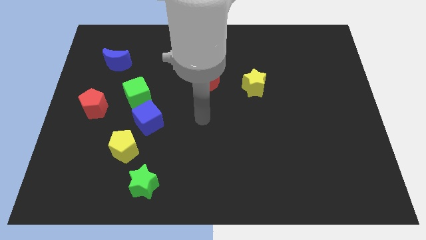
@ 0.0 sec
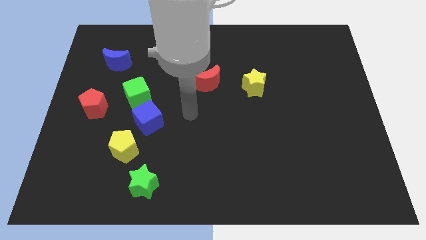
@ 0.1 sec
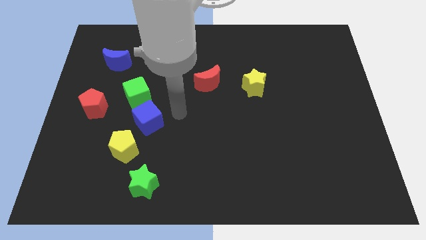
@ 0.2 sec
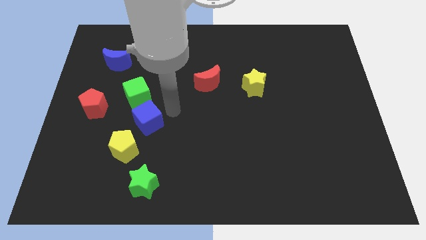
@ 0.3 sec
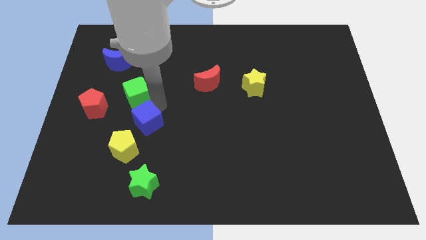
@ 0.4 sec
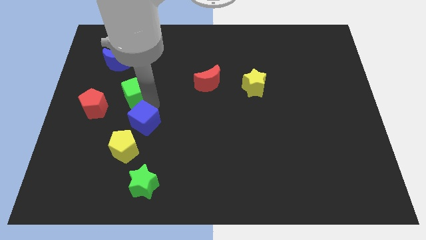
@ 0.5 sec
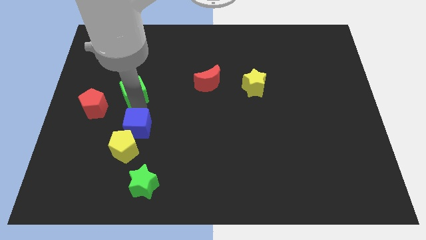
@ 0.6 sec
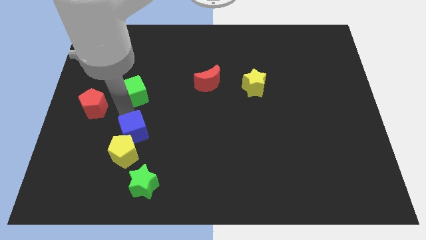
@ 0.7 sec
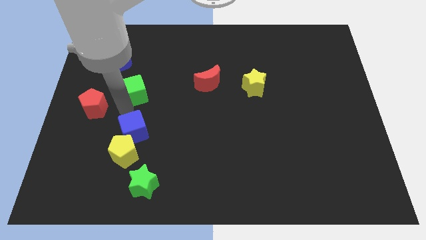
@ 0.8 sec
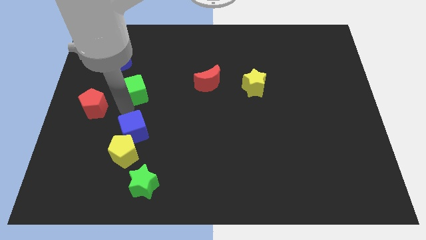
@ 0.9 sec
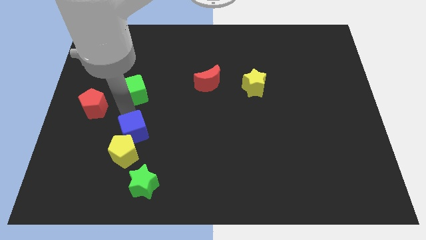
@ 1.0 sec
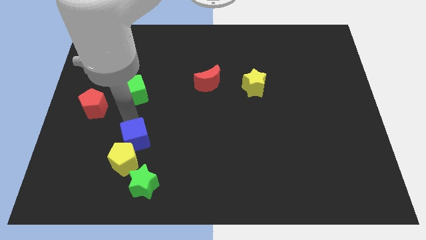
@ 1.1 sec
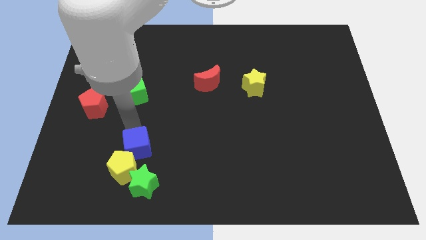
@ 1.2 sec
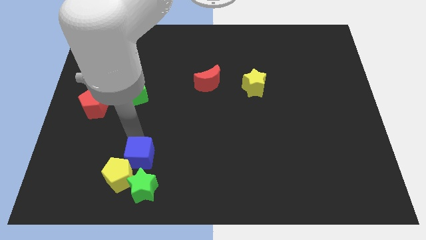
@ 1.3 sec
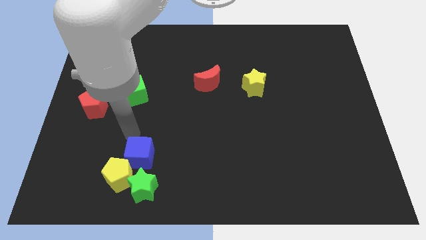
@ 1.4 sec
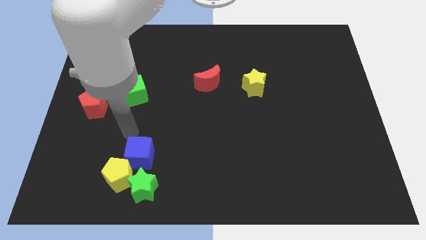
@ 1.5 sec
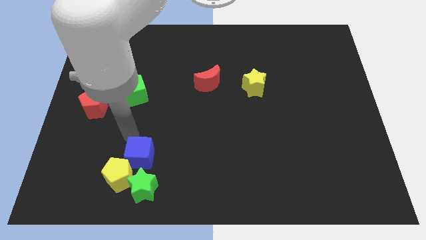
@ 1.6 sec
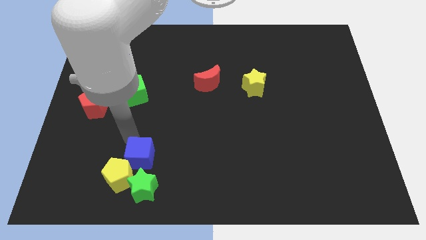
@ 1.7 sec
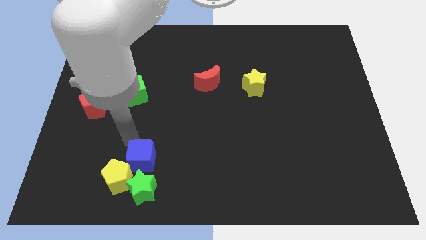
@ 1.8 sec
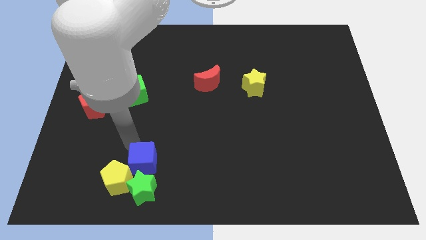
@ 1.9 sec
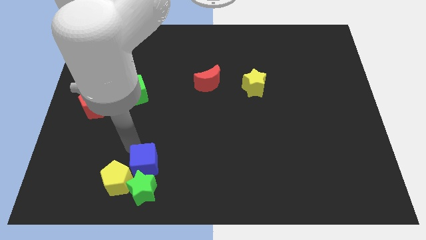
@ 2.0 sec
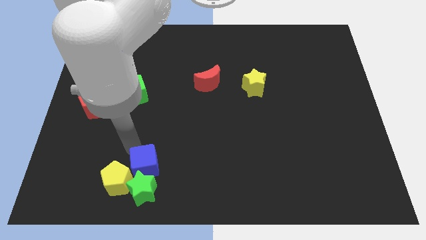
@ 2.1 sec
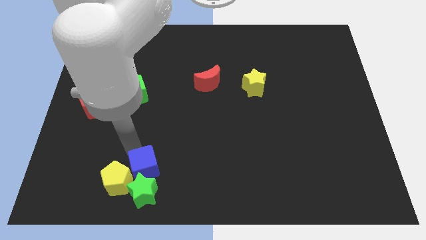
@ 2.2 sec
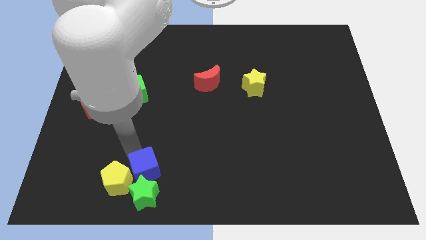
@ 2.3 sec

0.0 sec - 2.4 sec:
move the blue cube away from the green cube and yellow pentagon

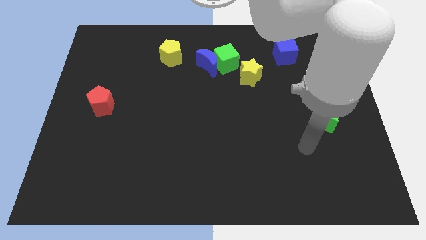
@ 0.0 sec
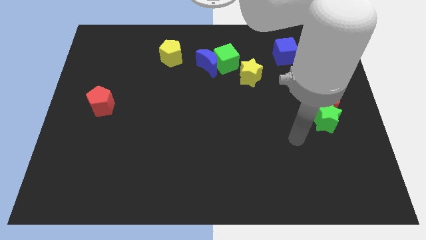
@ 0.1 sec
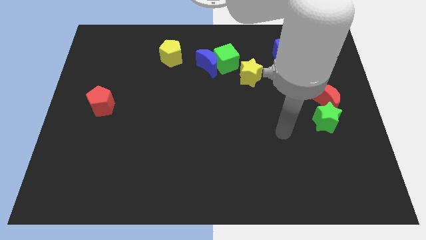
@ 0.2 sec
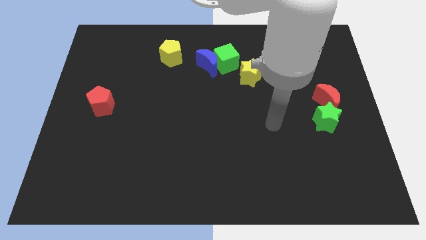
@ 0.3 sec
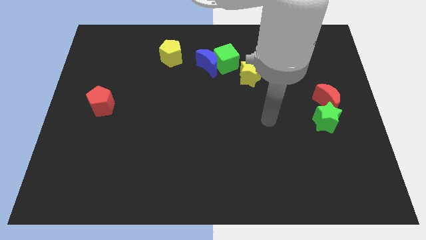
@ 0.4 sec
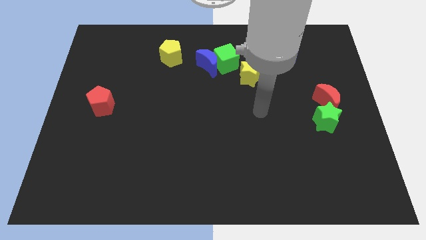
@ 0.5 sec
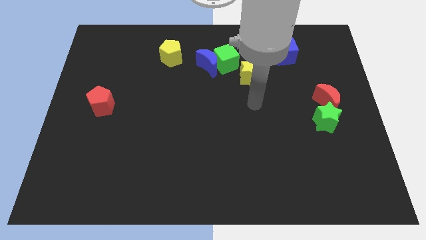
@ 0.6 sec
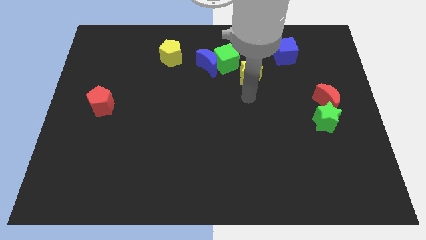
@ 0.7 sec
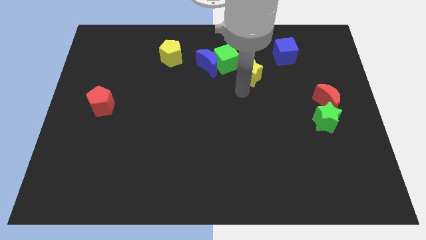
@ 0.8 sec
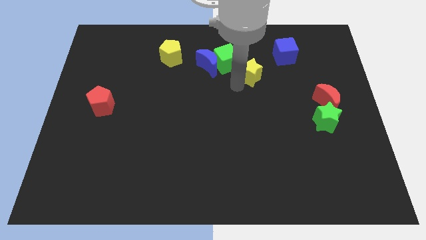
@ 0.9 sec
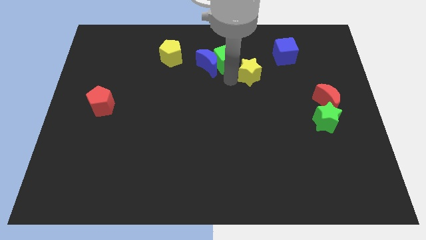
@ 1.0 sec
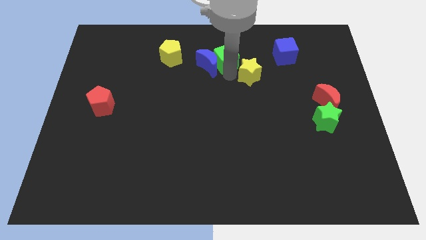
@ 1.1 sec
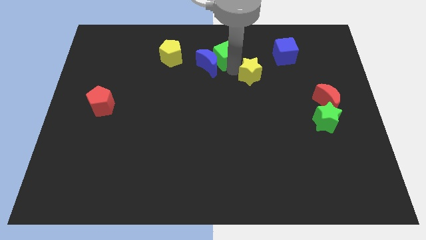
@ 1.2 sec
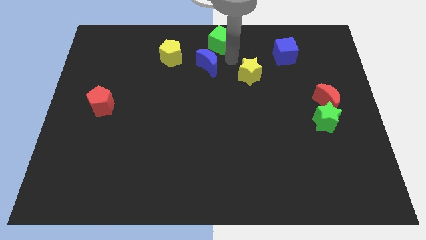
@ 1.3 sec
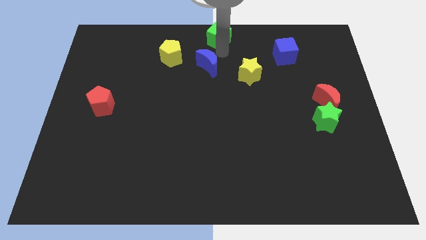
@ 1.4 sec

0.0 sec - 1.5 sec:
pull the blue moon apart from the green cube

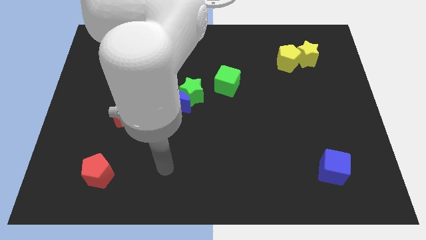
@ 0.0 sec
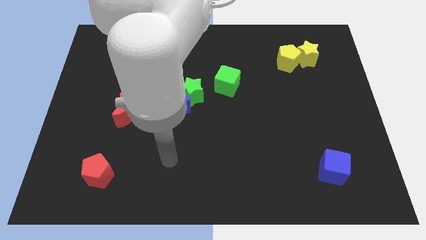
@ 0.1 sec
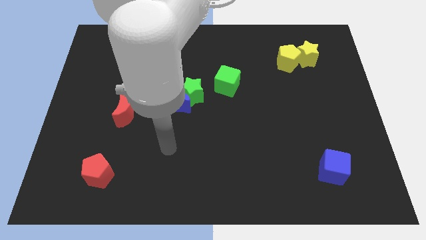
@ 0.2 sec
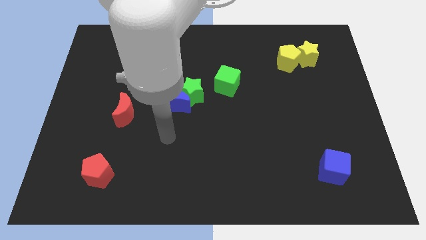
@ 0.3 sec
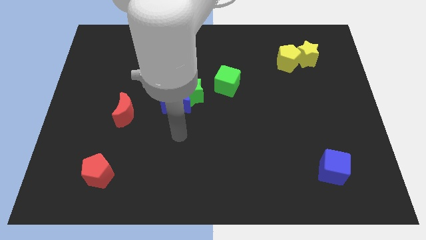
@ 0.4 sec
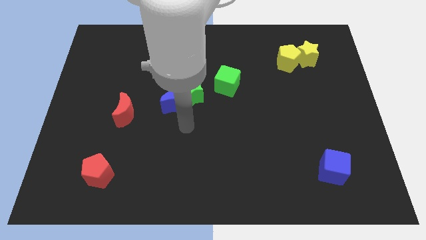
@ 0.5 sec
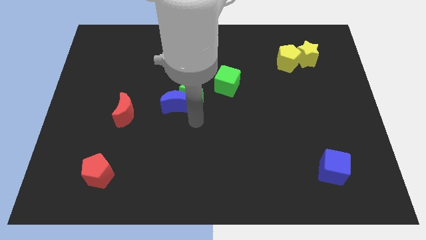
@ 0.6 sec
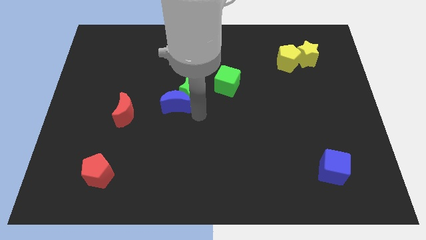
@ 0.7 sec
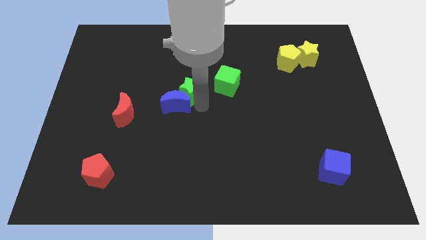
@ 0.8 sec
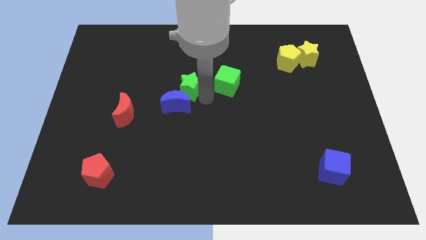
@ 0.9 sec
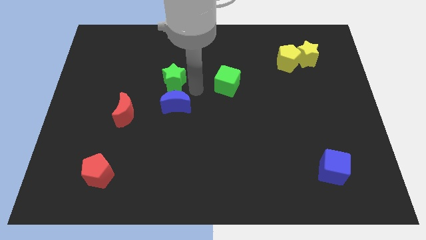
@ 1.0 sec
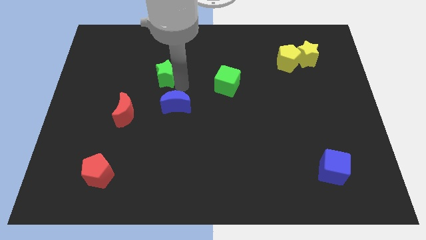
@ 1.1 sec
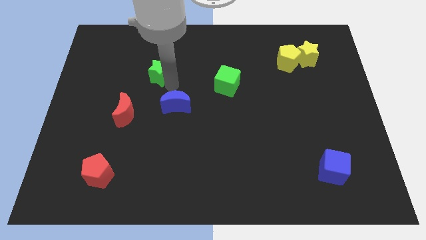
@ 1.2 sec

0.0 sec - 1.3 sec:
pull the blue moon apart from the green star

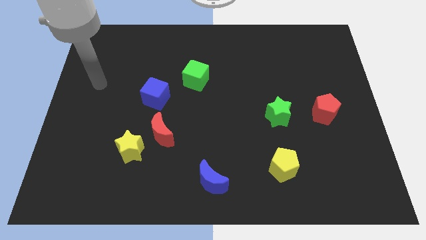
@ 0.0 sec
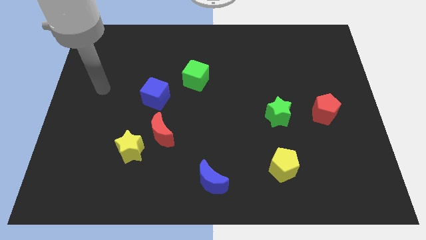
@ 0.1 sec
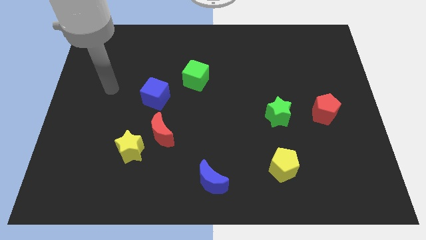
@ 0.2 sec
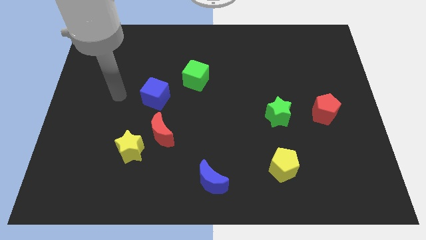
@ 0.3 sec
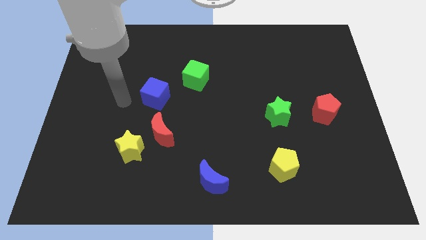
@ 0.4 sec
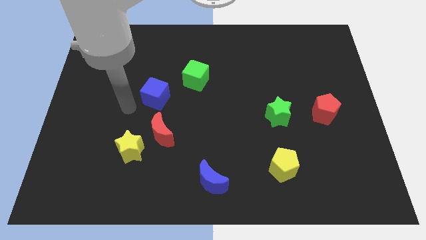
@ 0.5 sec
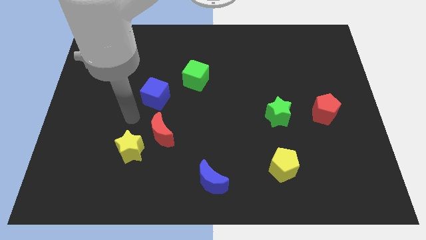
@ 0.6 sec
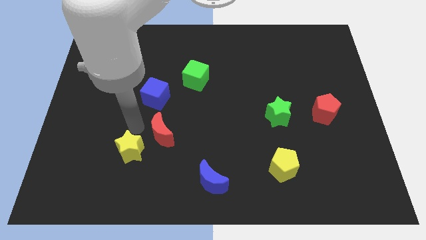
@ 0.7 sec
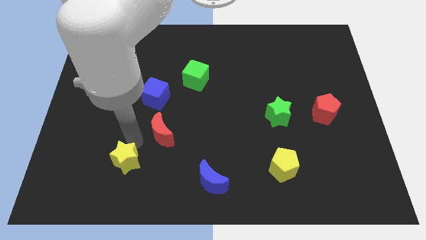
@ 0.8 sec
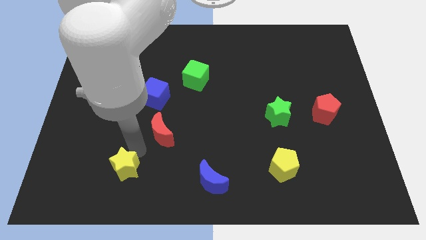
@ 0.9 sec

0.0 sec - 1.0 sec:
move the red moon away from the yellow star

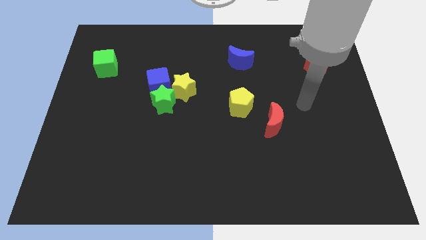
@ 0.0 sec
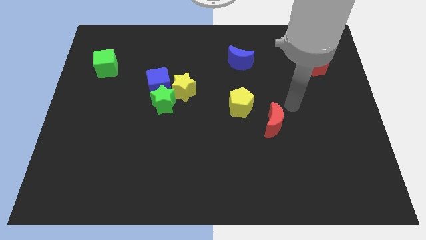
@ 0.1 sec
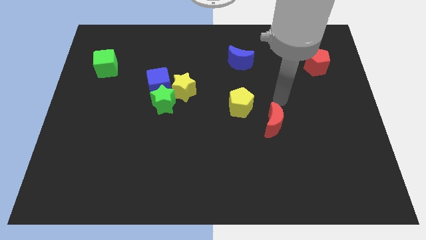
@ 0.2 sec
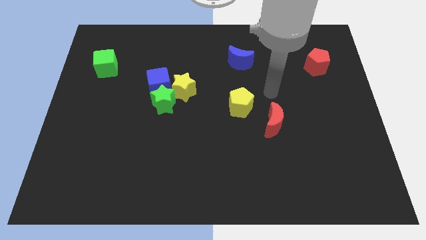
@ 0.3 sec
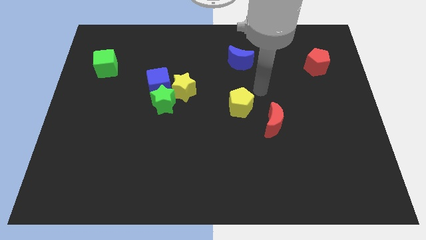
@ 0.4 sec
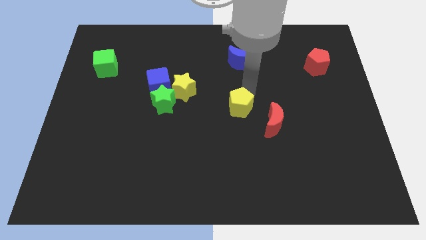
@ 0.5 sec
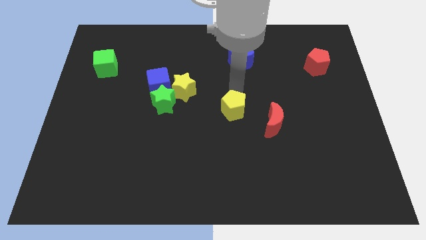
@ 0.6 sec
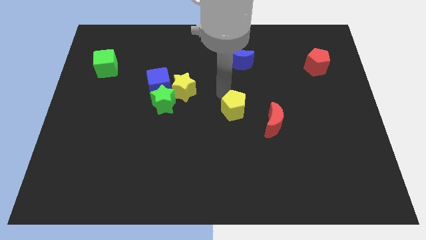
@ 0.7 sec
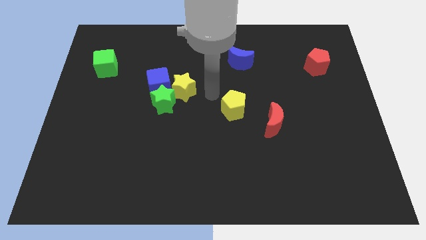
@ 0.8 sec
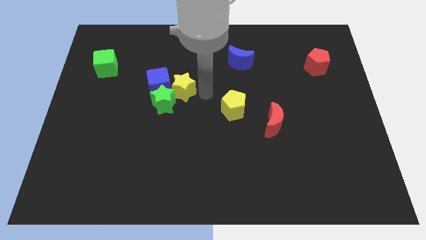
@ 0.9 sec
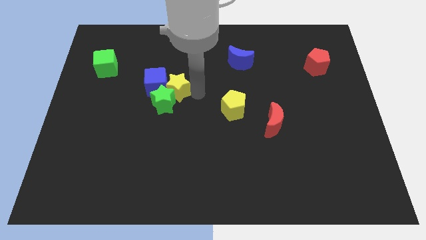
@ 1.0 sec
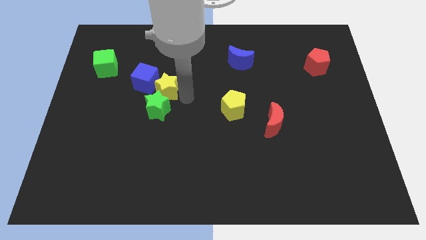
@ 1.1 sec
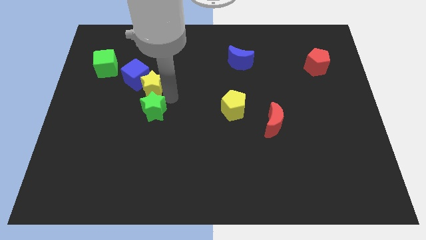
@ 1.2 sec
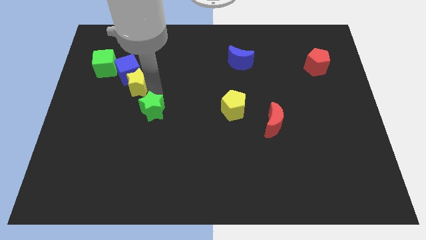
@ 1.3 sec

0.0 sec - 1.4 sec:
separate the blue cube from the green star and yellow star

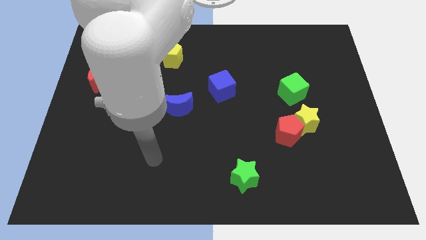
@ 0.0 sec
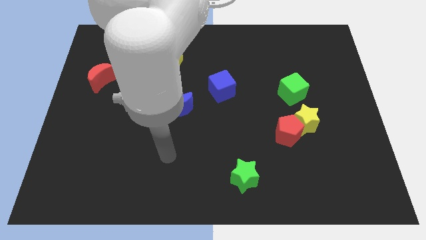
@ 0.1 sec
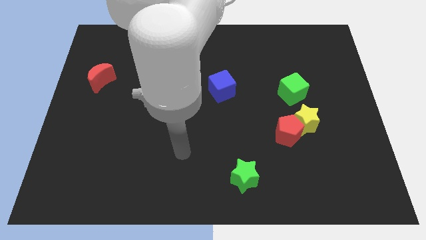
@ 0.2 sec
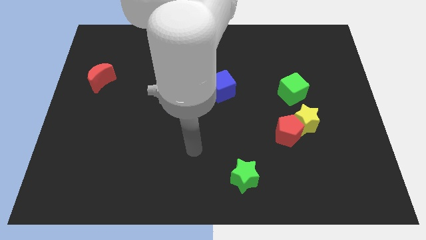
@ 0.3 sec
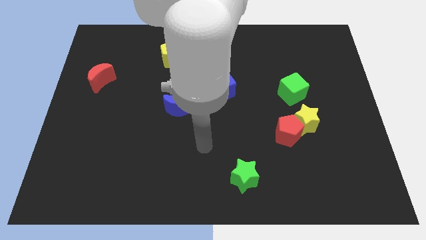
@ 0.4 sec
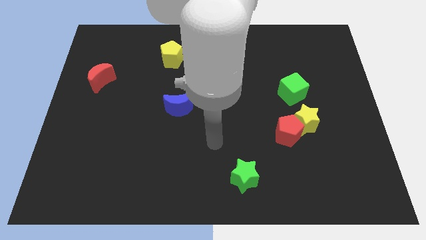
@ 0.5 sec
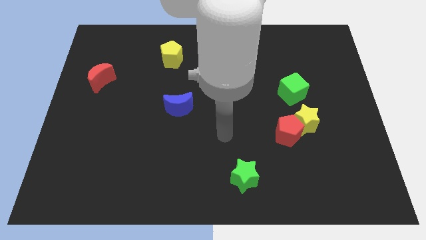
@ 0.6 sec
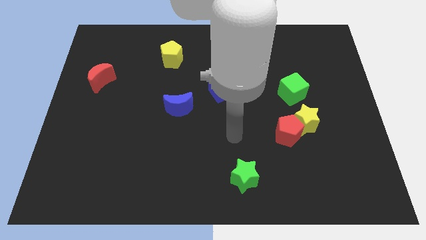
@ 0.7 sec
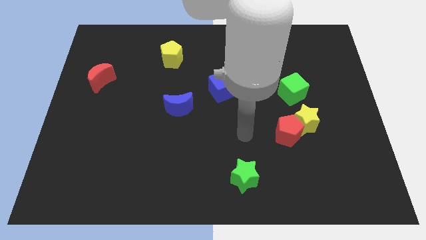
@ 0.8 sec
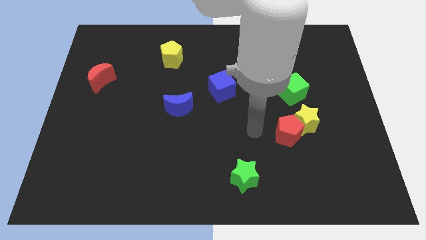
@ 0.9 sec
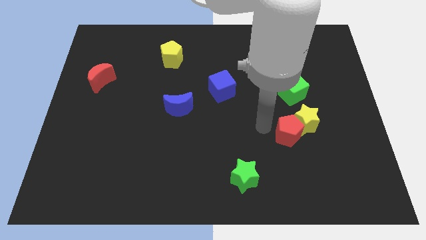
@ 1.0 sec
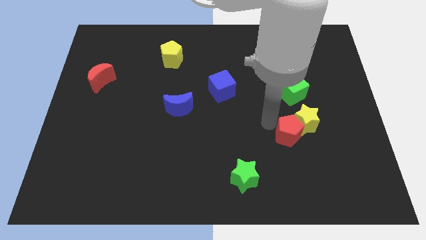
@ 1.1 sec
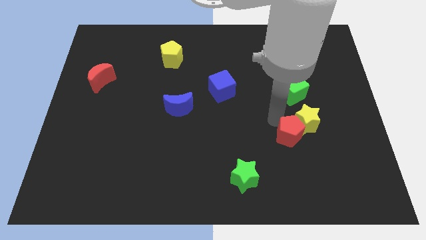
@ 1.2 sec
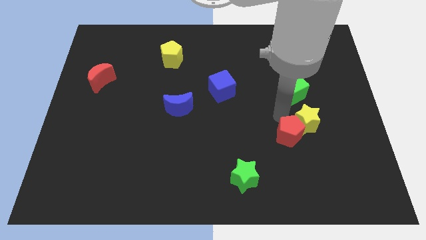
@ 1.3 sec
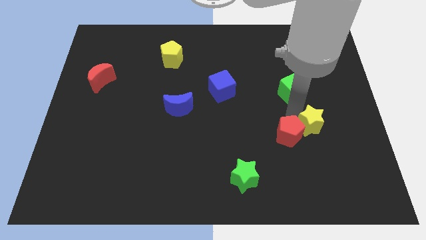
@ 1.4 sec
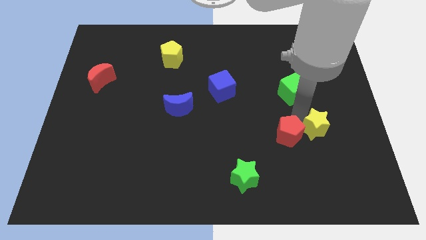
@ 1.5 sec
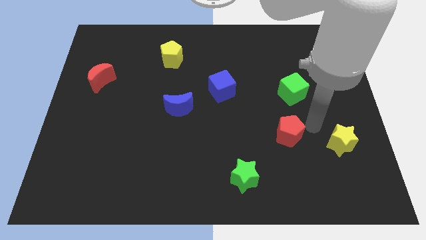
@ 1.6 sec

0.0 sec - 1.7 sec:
move the red pentagon away from the yellow star
